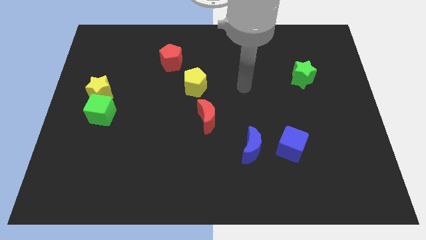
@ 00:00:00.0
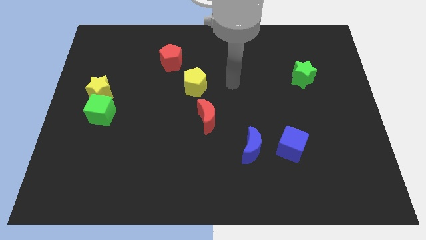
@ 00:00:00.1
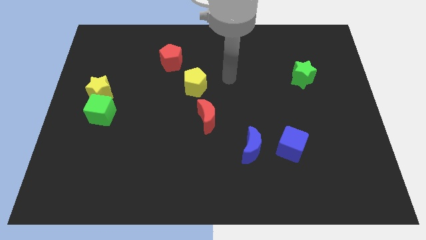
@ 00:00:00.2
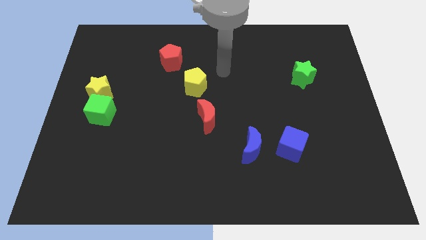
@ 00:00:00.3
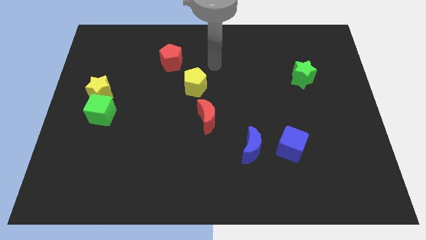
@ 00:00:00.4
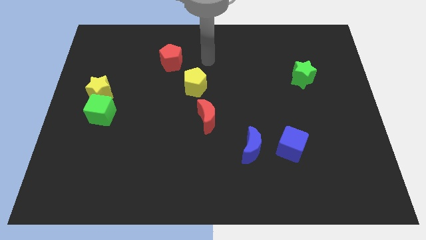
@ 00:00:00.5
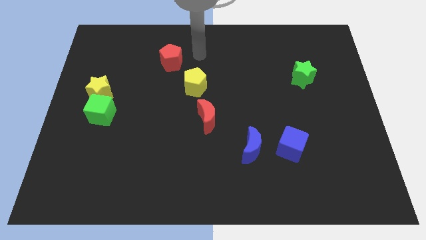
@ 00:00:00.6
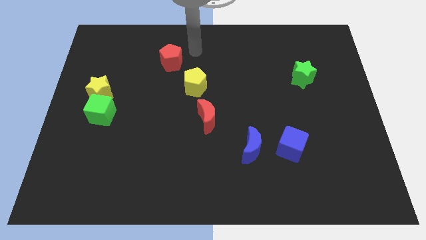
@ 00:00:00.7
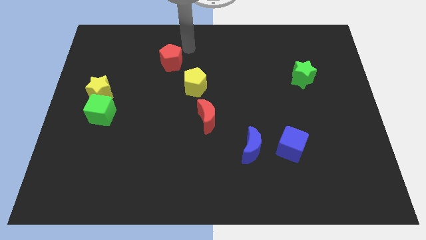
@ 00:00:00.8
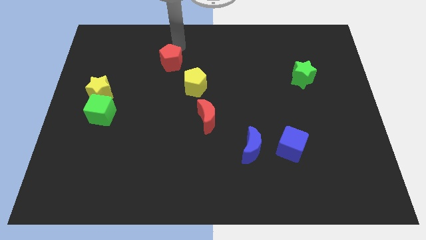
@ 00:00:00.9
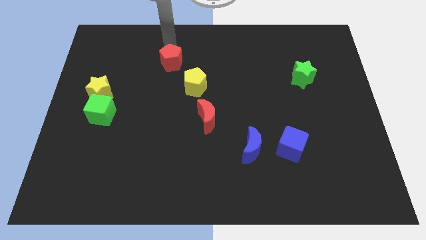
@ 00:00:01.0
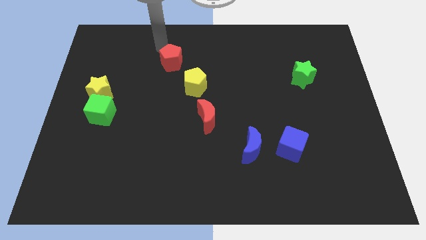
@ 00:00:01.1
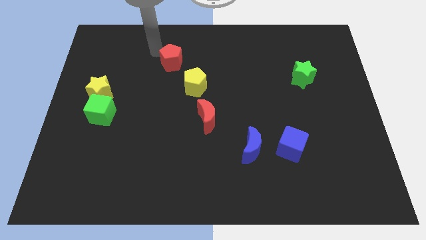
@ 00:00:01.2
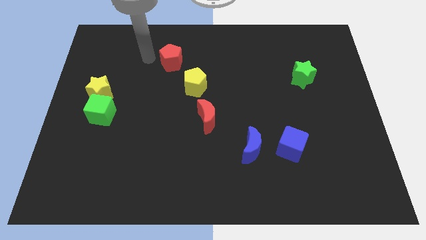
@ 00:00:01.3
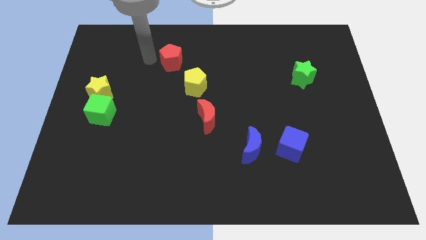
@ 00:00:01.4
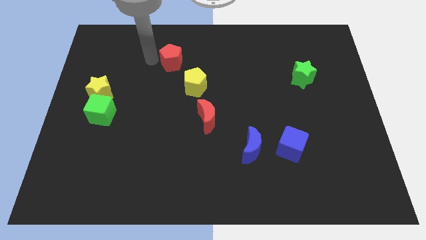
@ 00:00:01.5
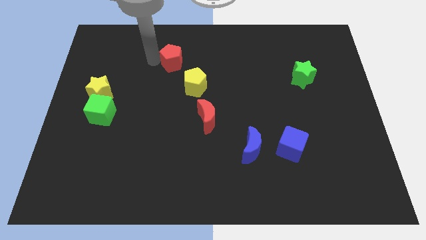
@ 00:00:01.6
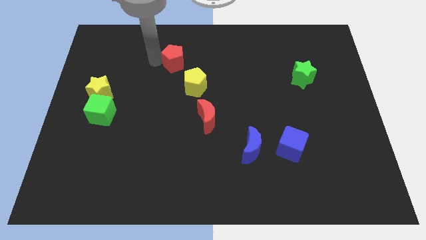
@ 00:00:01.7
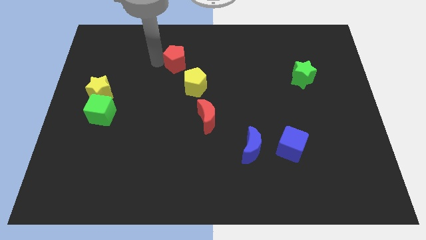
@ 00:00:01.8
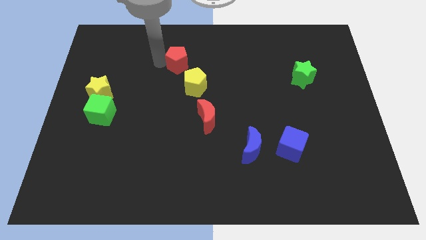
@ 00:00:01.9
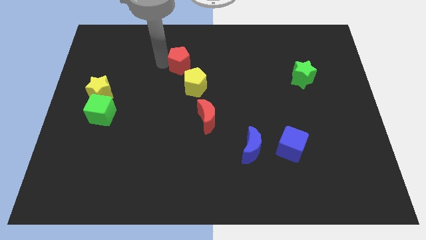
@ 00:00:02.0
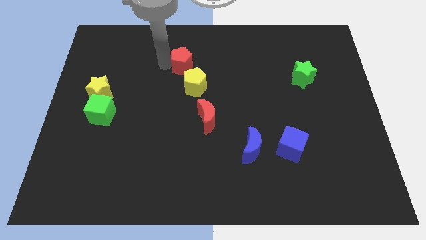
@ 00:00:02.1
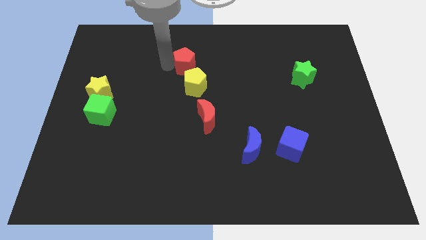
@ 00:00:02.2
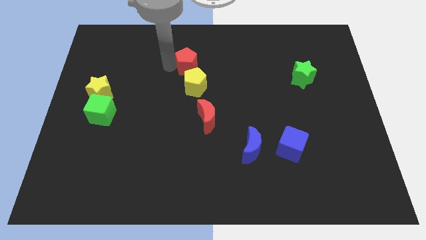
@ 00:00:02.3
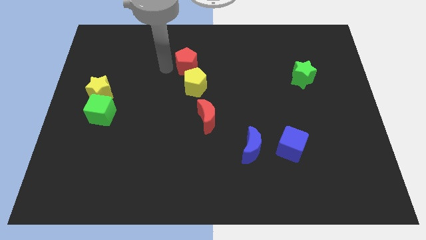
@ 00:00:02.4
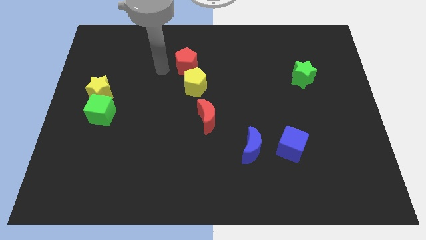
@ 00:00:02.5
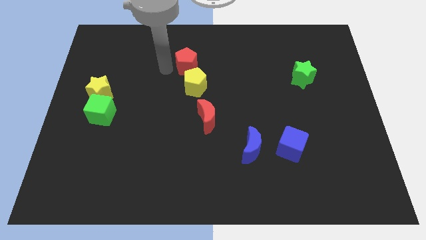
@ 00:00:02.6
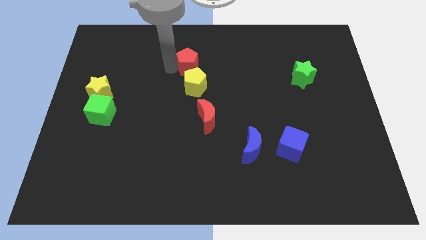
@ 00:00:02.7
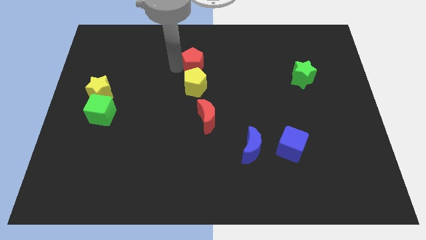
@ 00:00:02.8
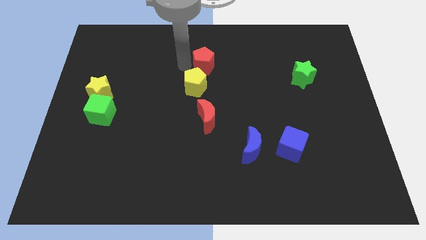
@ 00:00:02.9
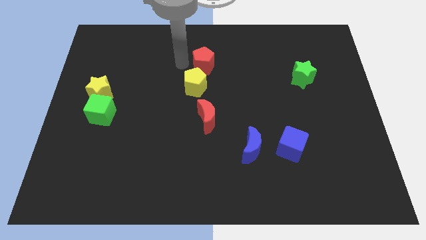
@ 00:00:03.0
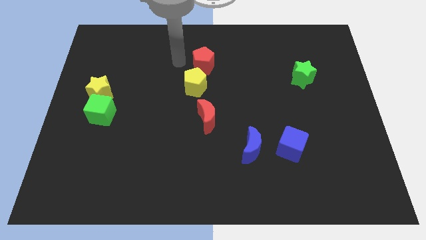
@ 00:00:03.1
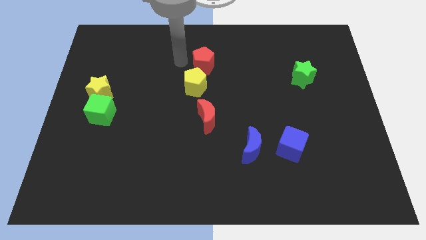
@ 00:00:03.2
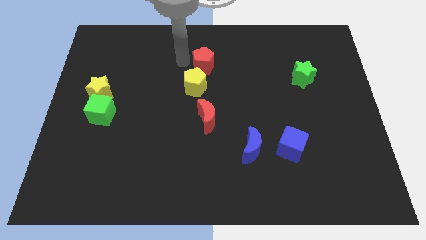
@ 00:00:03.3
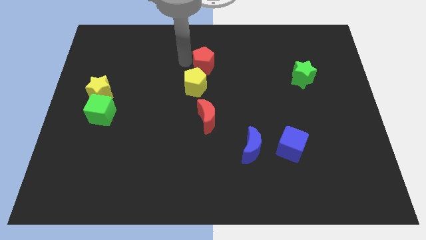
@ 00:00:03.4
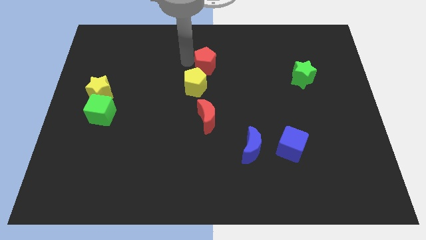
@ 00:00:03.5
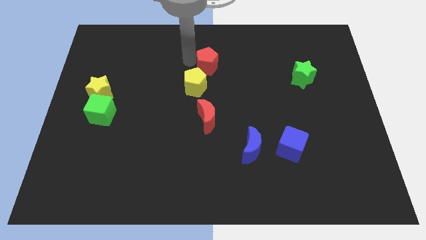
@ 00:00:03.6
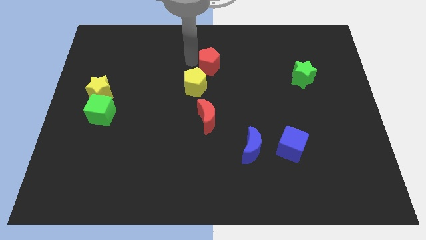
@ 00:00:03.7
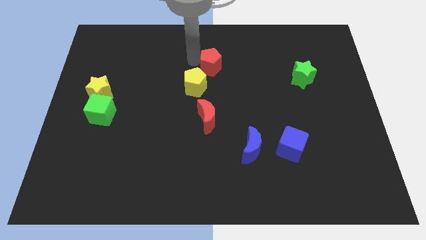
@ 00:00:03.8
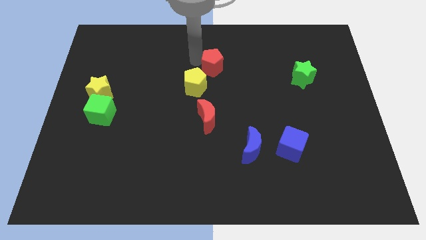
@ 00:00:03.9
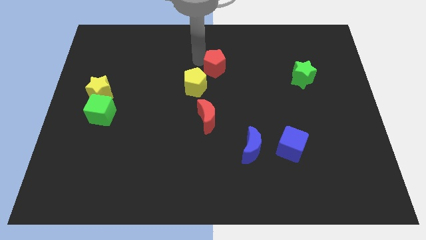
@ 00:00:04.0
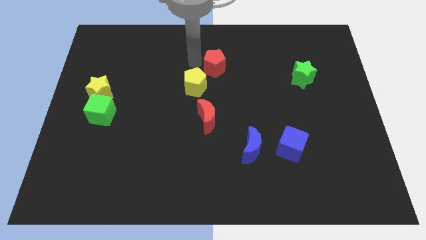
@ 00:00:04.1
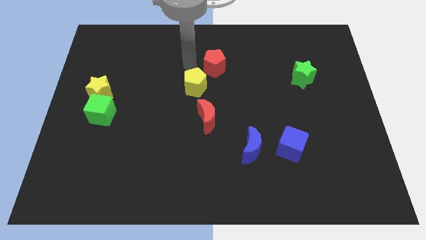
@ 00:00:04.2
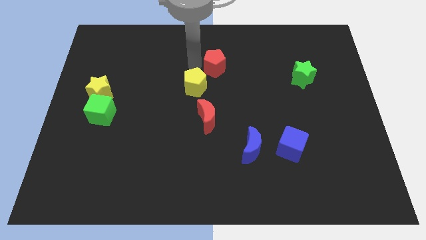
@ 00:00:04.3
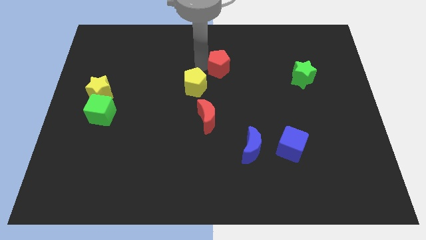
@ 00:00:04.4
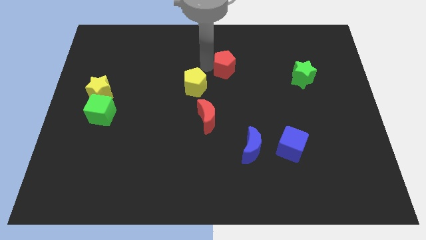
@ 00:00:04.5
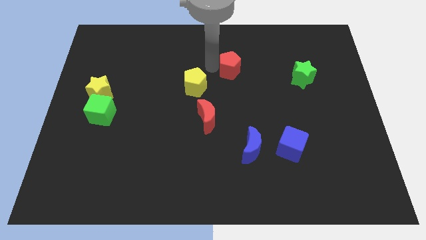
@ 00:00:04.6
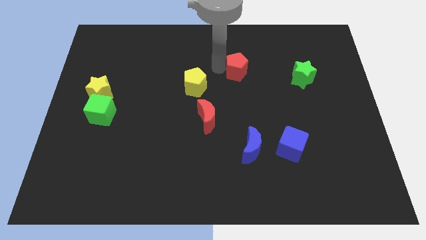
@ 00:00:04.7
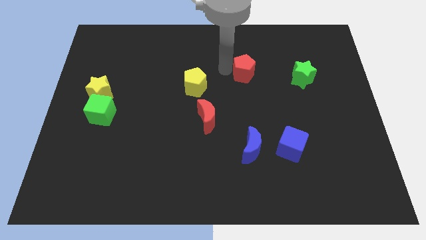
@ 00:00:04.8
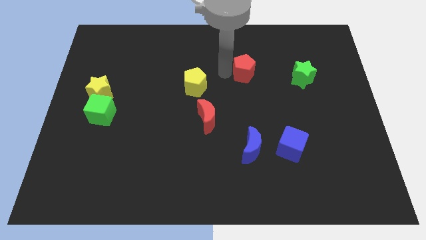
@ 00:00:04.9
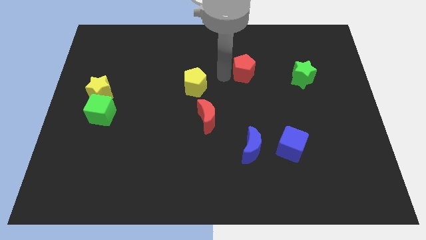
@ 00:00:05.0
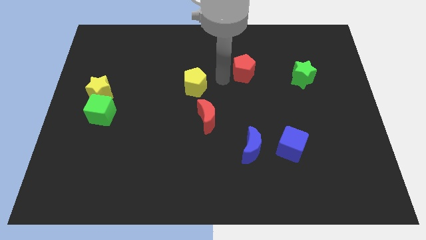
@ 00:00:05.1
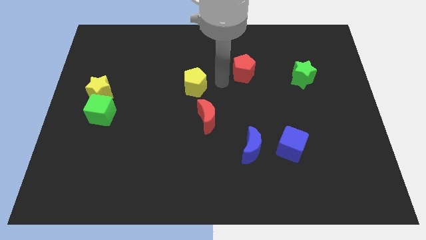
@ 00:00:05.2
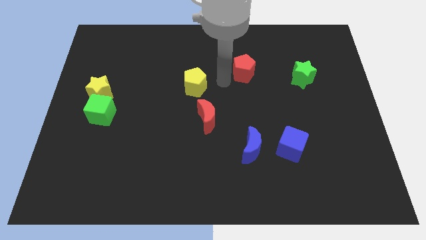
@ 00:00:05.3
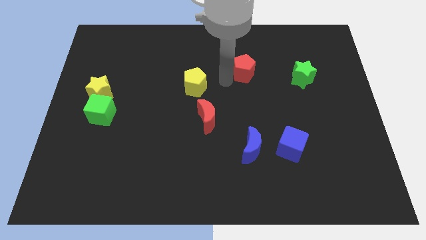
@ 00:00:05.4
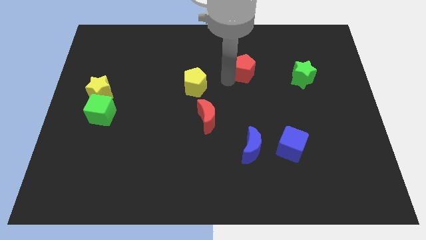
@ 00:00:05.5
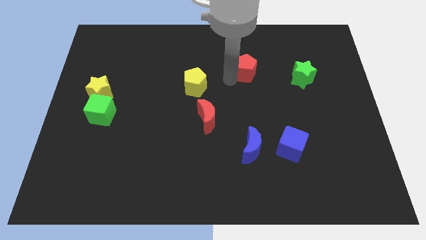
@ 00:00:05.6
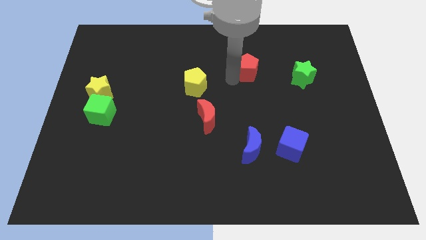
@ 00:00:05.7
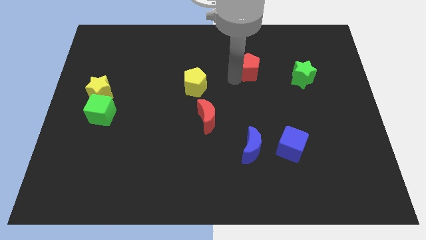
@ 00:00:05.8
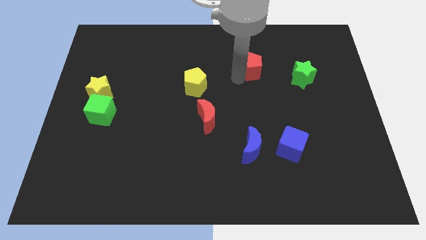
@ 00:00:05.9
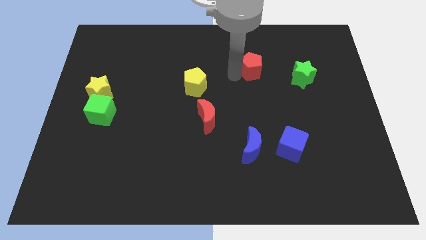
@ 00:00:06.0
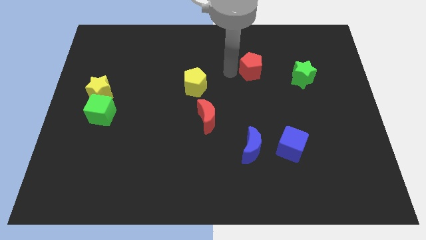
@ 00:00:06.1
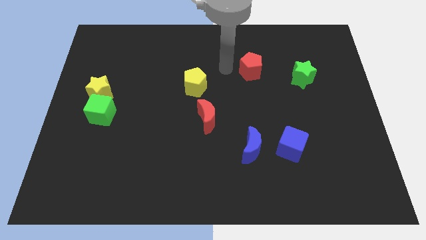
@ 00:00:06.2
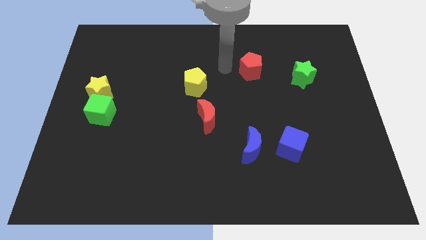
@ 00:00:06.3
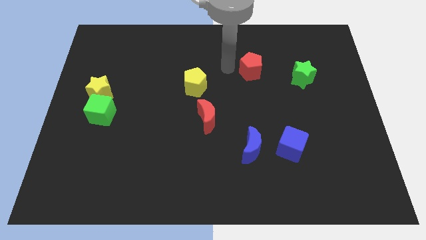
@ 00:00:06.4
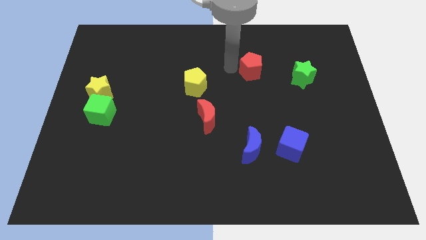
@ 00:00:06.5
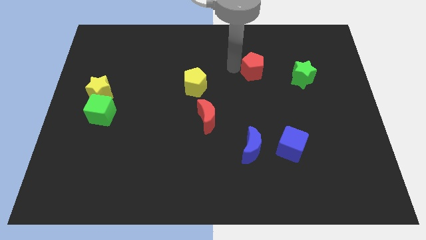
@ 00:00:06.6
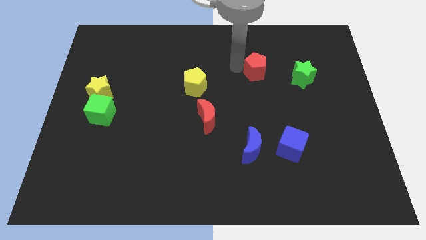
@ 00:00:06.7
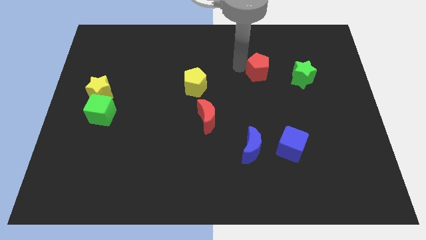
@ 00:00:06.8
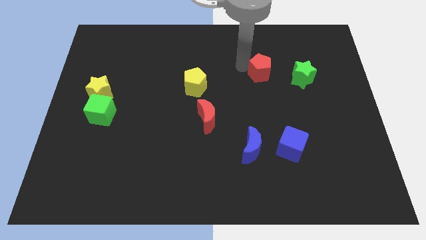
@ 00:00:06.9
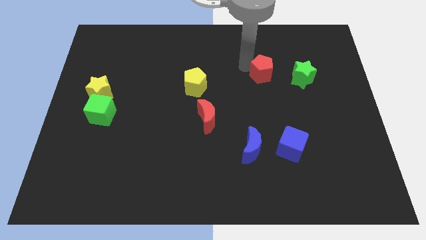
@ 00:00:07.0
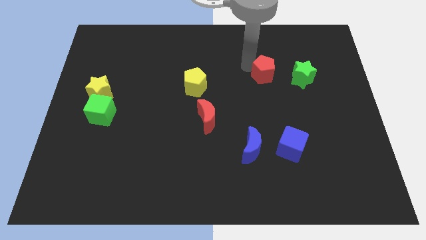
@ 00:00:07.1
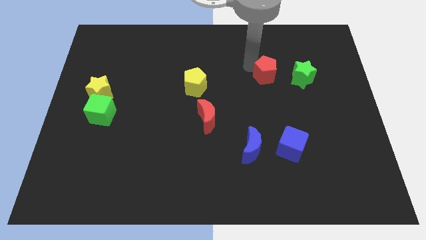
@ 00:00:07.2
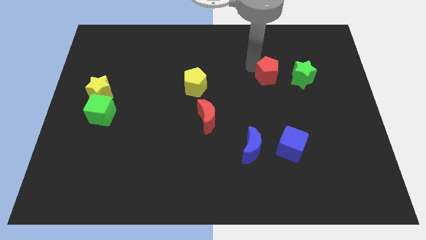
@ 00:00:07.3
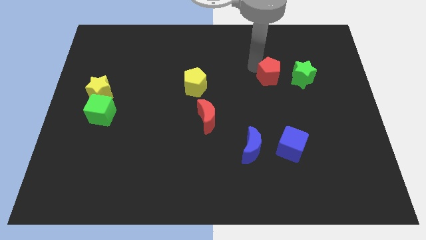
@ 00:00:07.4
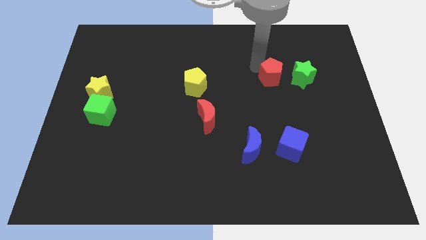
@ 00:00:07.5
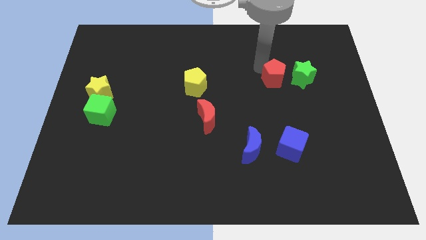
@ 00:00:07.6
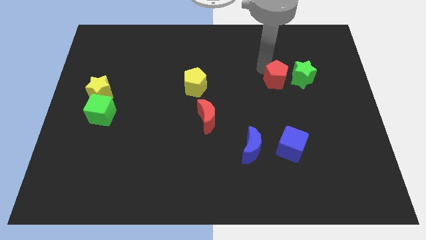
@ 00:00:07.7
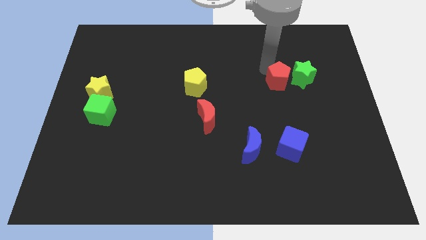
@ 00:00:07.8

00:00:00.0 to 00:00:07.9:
put the red pentagon next to the green star
